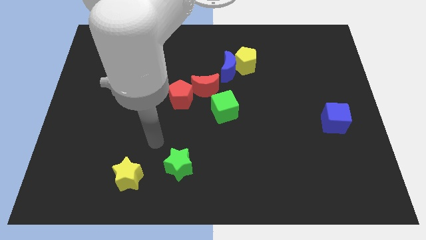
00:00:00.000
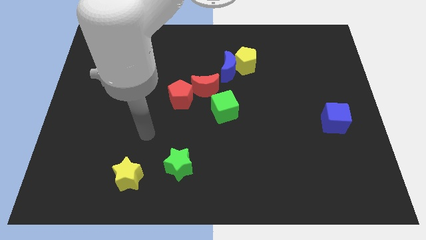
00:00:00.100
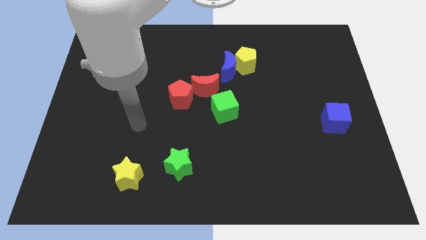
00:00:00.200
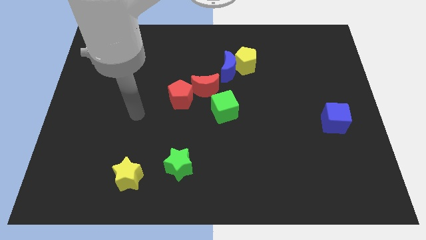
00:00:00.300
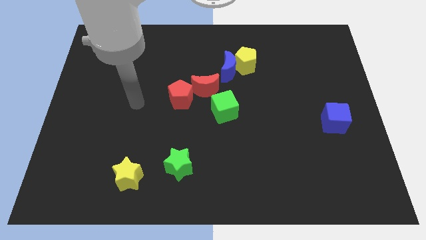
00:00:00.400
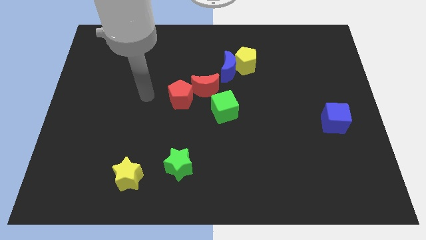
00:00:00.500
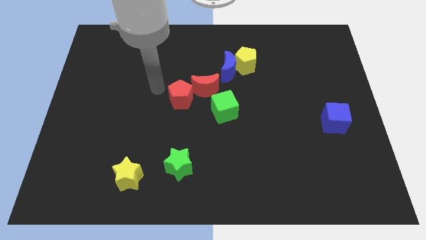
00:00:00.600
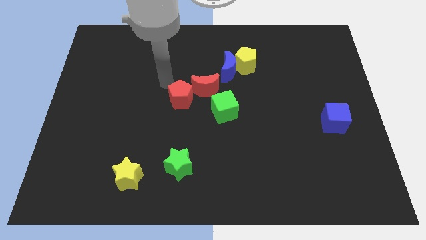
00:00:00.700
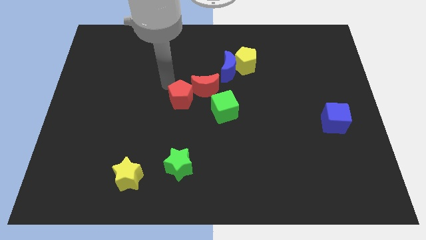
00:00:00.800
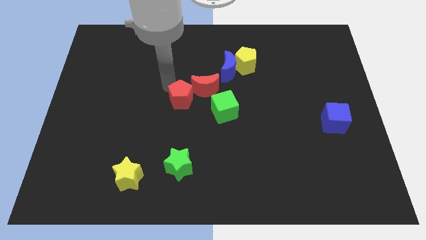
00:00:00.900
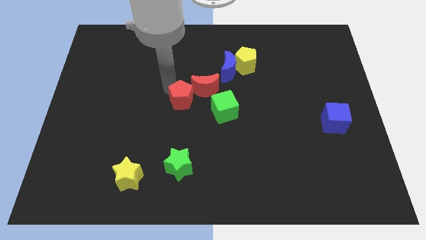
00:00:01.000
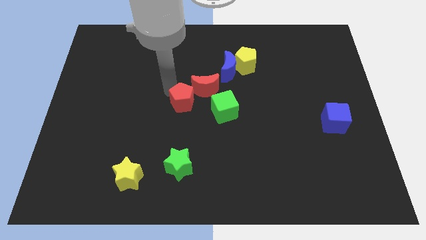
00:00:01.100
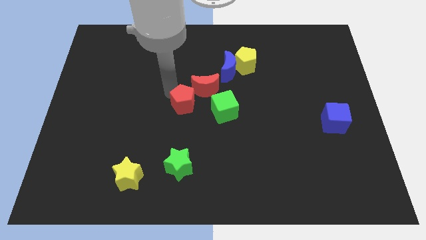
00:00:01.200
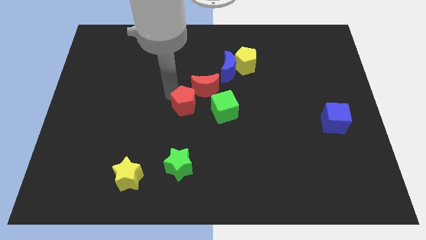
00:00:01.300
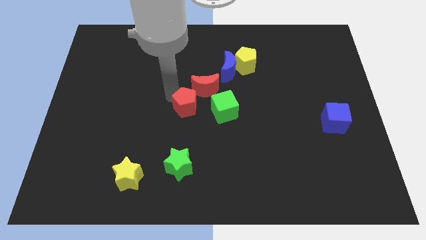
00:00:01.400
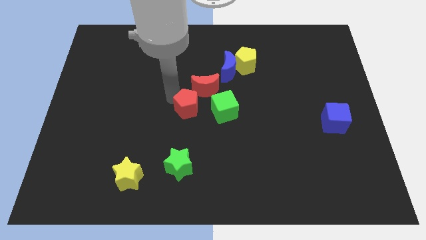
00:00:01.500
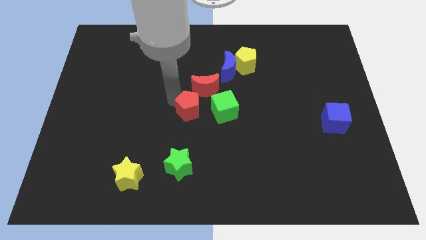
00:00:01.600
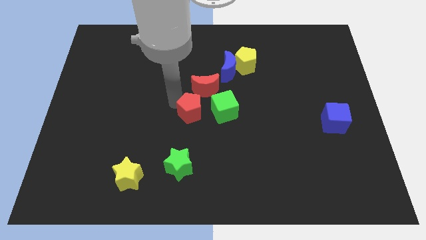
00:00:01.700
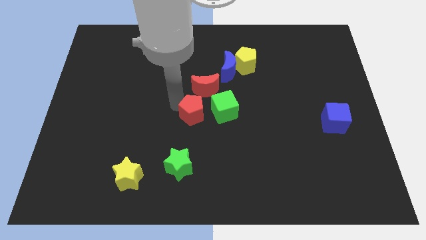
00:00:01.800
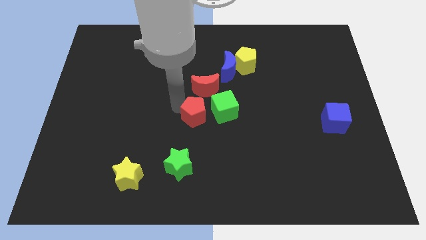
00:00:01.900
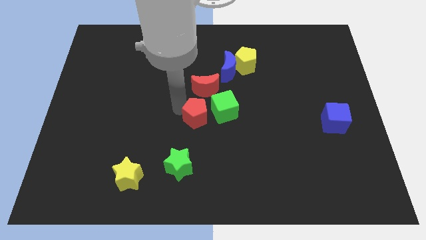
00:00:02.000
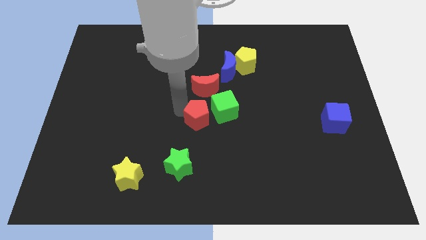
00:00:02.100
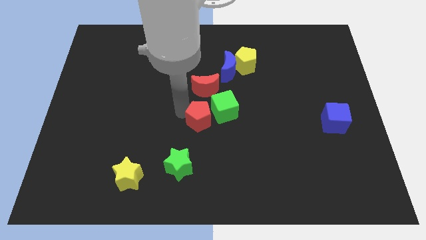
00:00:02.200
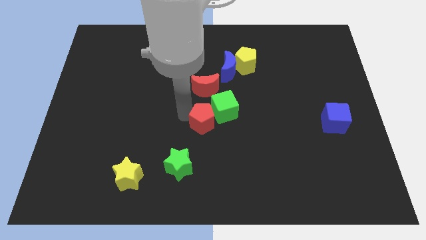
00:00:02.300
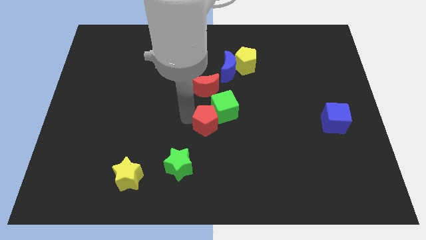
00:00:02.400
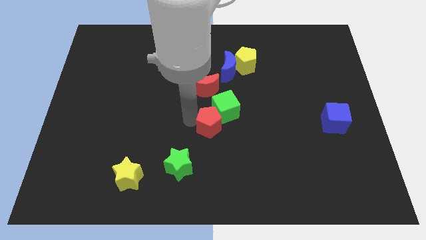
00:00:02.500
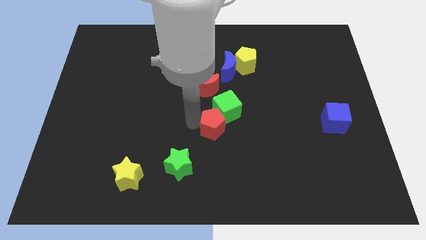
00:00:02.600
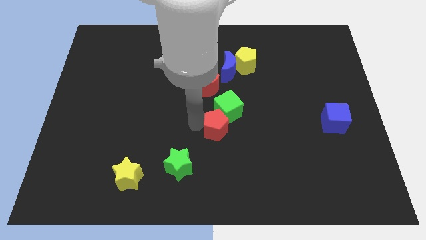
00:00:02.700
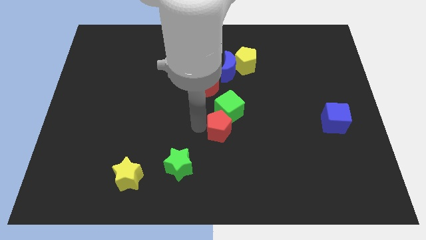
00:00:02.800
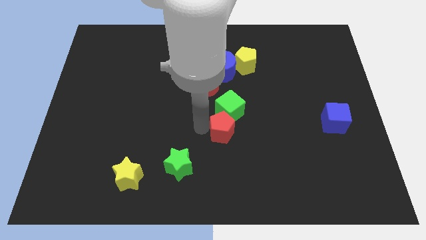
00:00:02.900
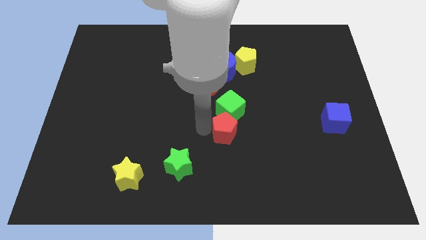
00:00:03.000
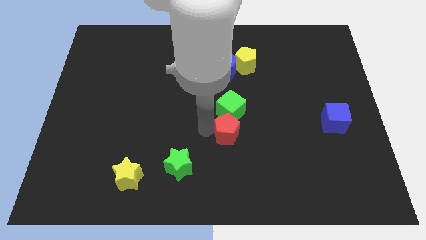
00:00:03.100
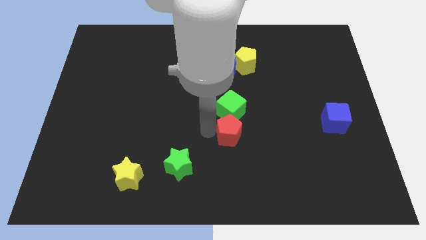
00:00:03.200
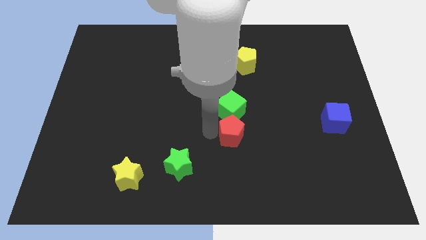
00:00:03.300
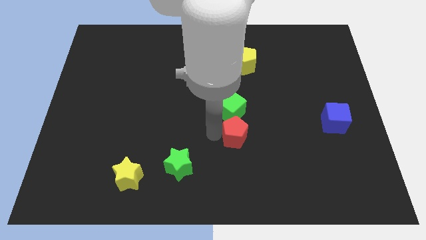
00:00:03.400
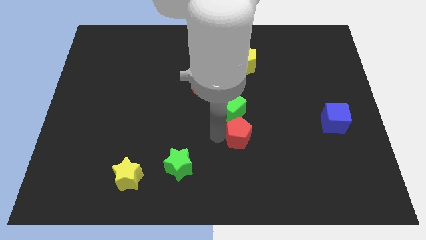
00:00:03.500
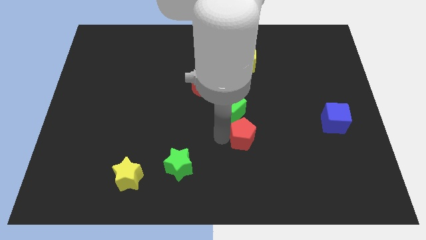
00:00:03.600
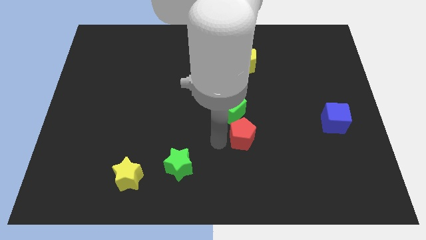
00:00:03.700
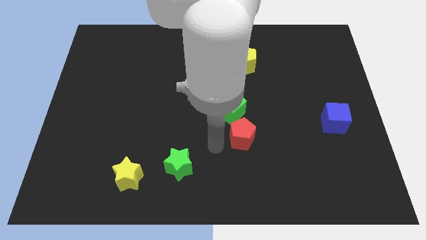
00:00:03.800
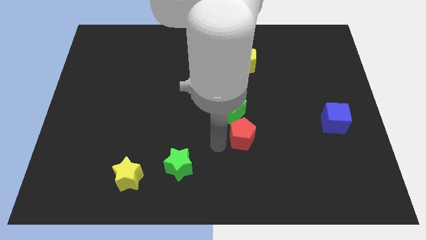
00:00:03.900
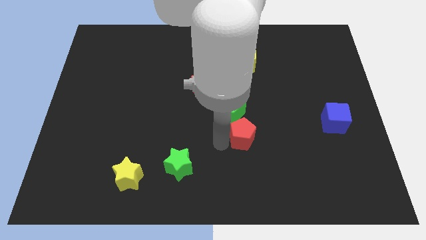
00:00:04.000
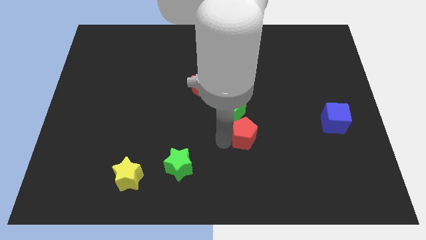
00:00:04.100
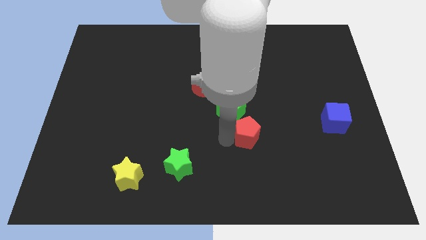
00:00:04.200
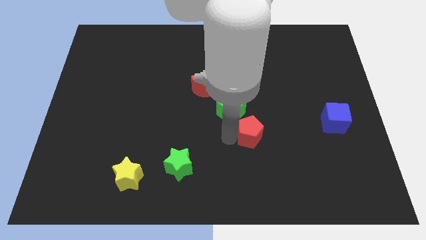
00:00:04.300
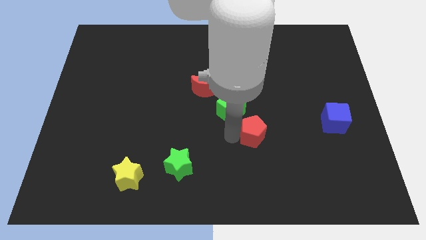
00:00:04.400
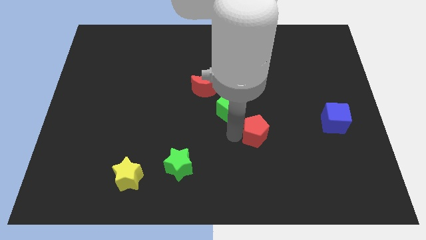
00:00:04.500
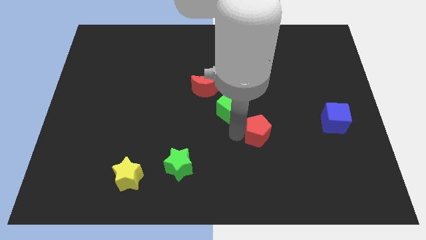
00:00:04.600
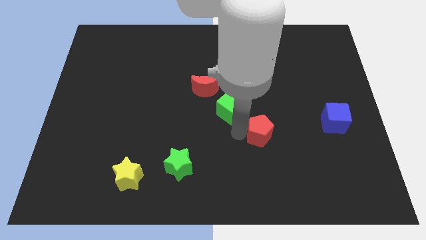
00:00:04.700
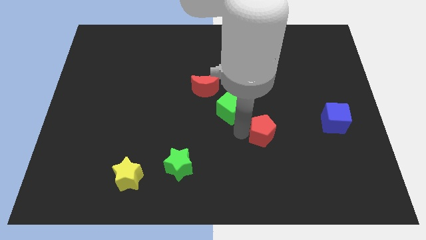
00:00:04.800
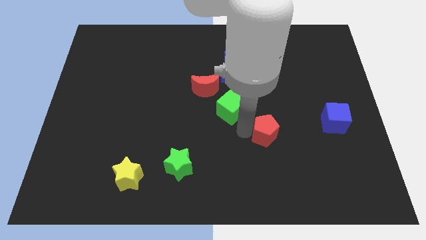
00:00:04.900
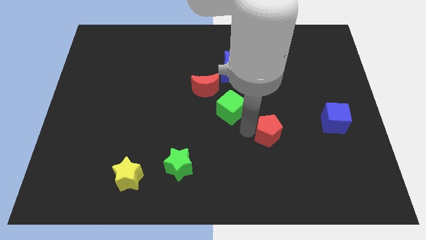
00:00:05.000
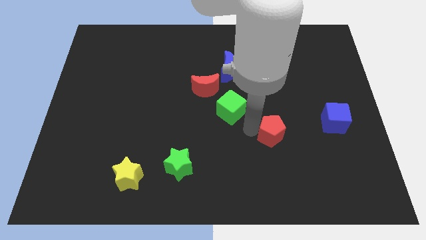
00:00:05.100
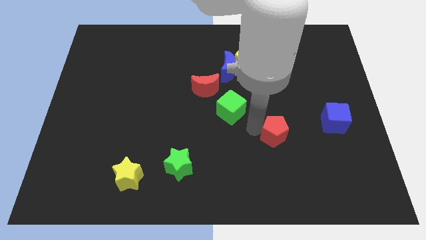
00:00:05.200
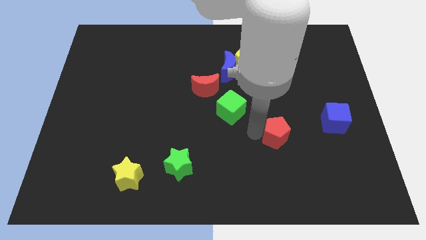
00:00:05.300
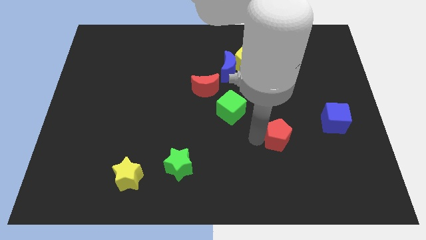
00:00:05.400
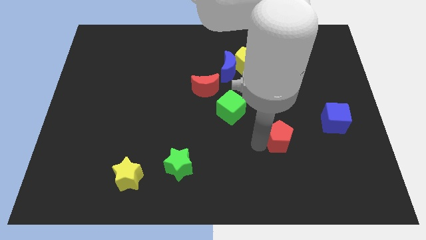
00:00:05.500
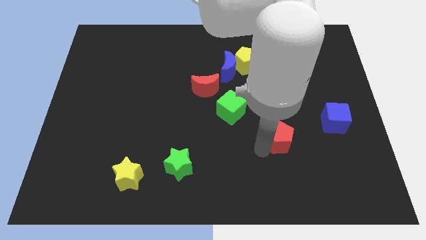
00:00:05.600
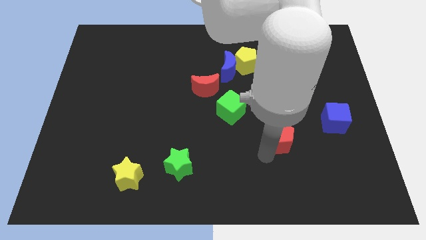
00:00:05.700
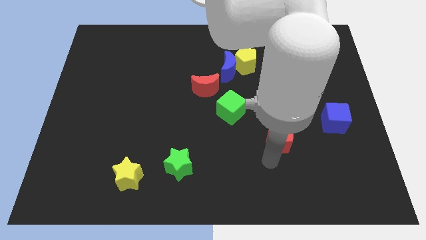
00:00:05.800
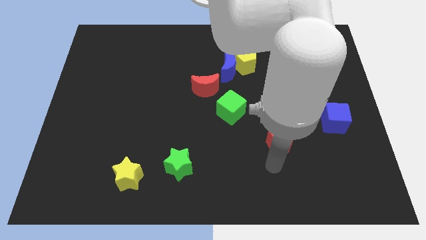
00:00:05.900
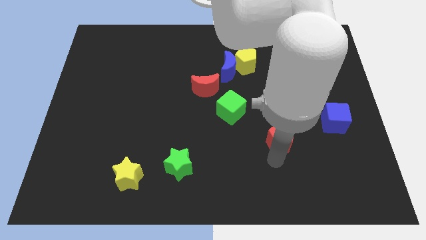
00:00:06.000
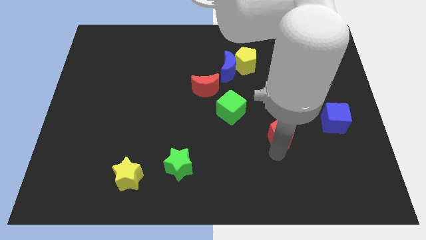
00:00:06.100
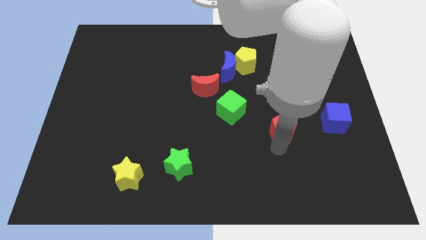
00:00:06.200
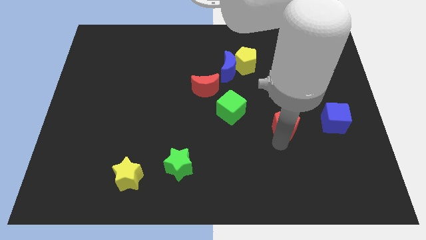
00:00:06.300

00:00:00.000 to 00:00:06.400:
push the red pentagon to the right

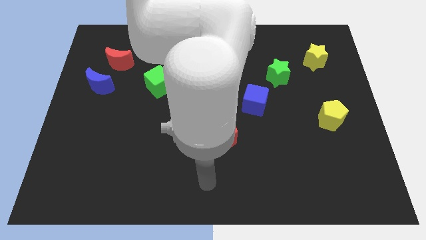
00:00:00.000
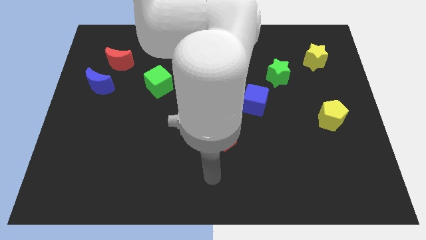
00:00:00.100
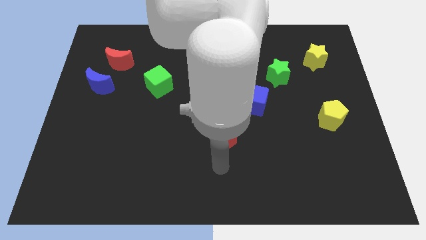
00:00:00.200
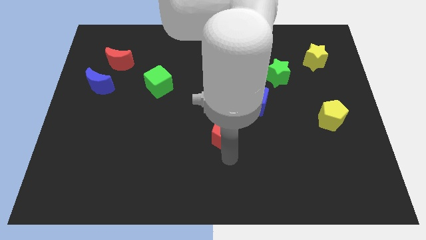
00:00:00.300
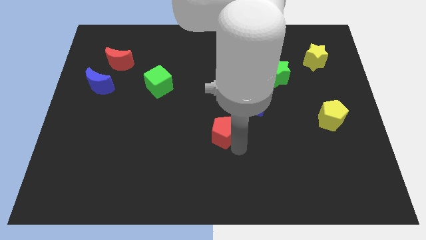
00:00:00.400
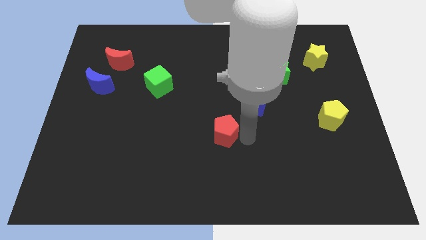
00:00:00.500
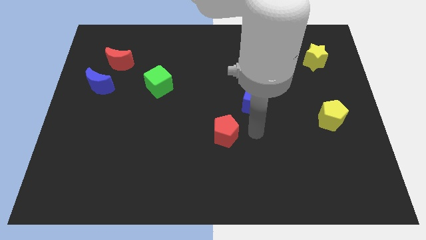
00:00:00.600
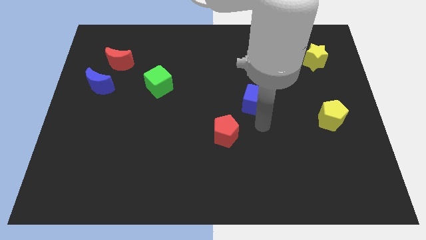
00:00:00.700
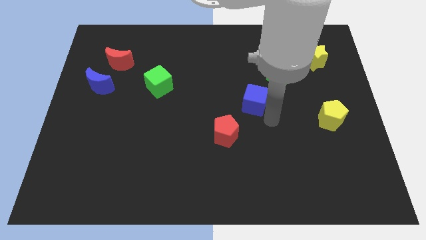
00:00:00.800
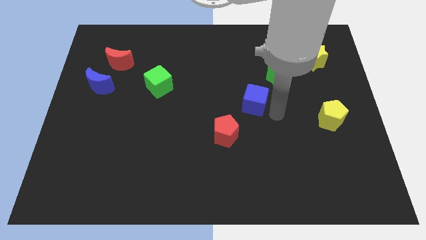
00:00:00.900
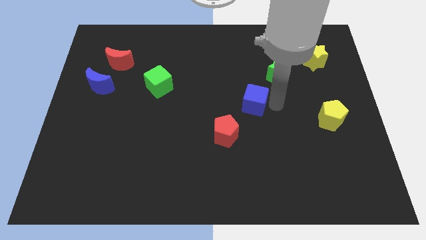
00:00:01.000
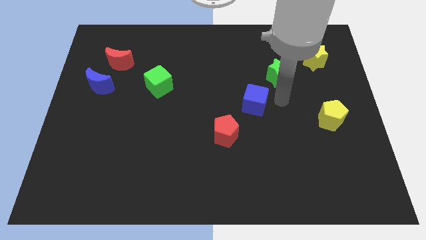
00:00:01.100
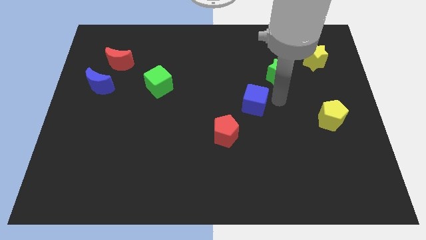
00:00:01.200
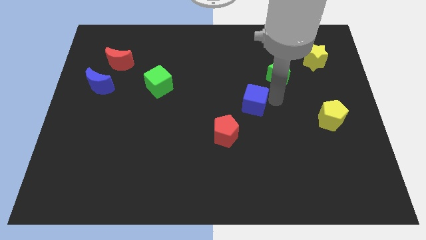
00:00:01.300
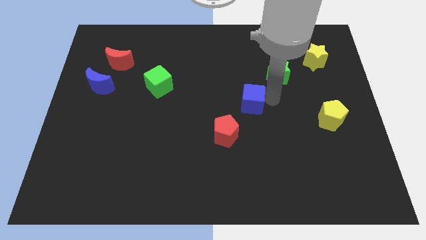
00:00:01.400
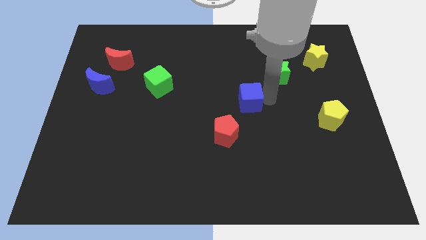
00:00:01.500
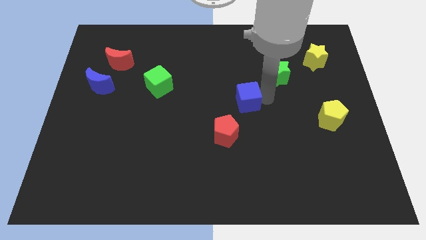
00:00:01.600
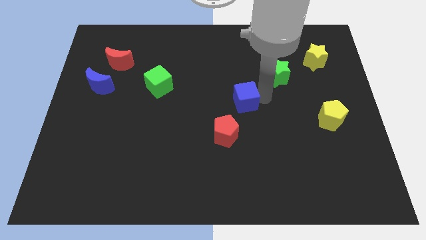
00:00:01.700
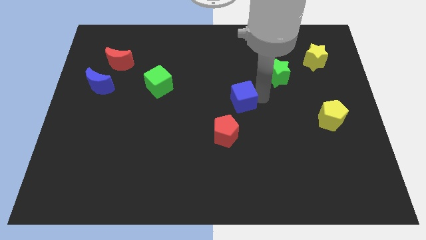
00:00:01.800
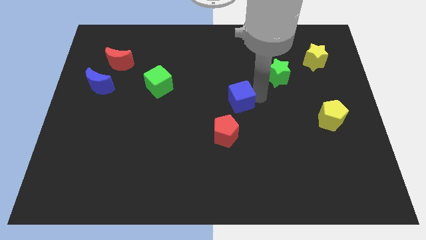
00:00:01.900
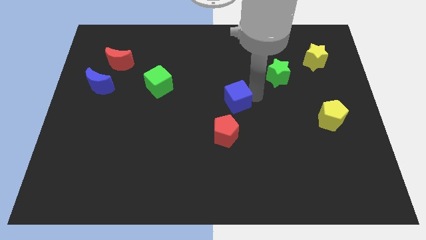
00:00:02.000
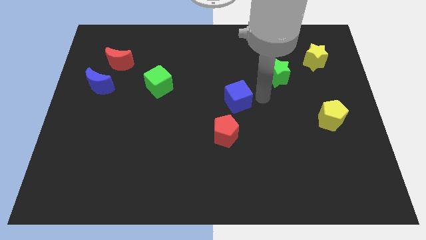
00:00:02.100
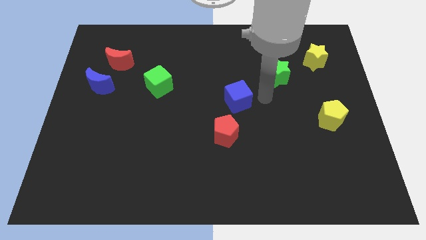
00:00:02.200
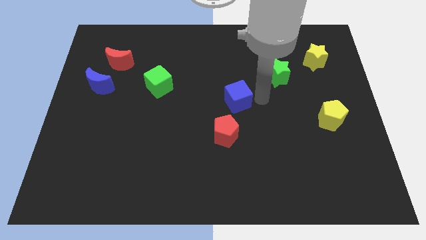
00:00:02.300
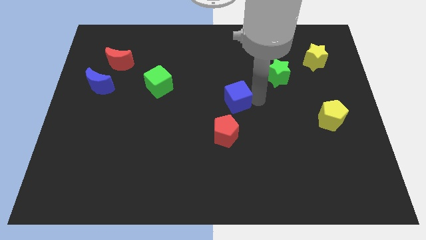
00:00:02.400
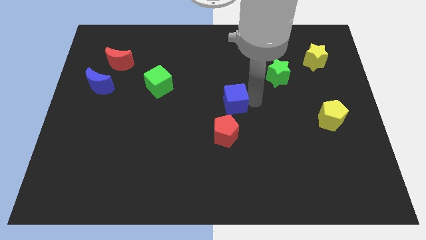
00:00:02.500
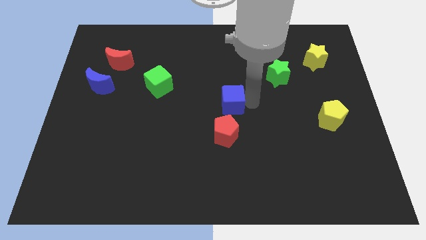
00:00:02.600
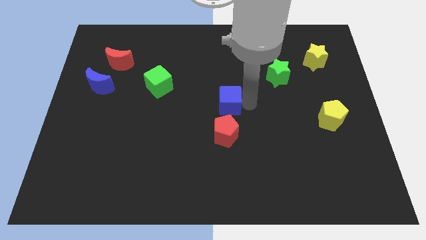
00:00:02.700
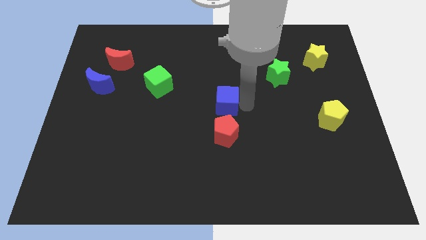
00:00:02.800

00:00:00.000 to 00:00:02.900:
slightly push the blue cube to the left
